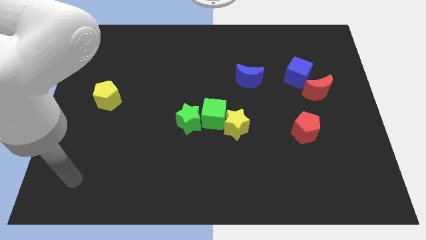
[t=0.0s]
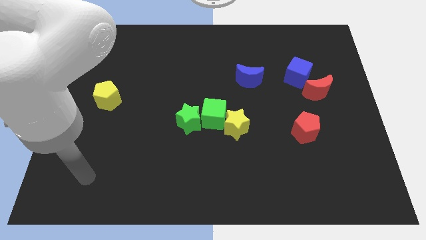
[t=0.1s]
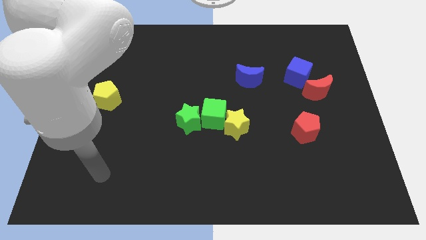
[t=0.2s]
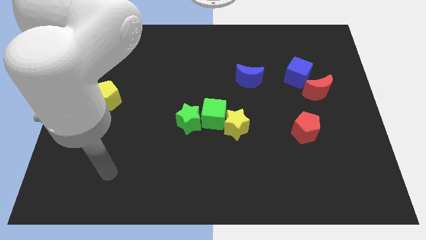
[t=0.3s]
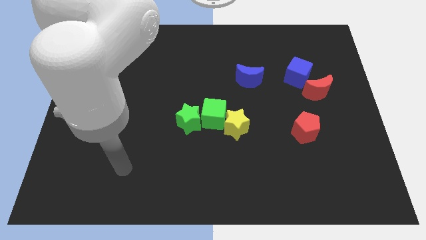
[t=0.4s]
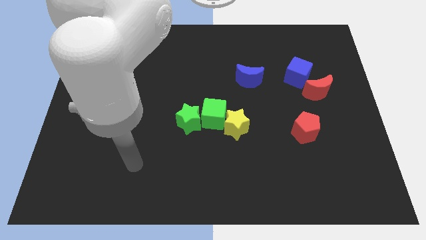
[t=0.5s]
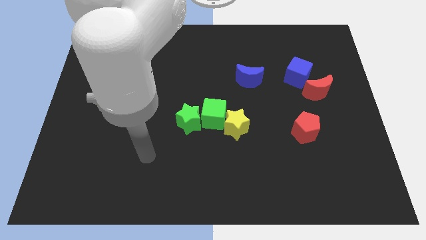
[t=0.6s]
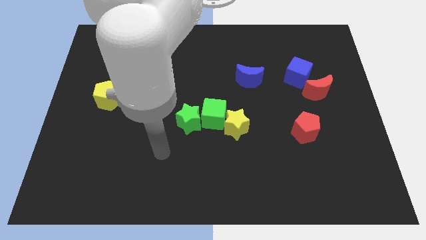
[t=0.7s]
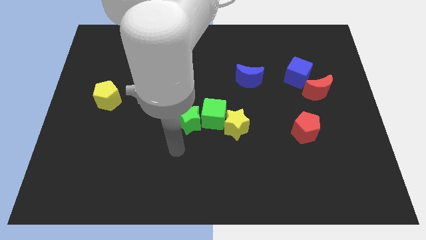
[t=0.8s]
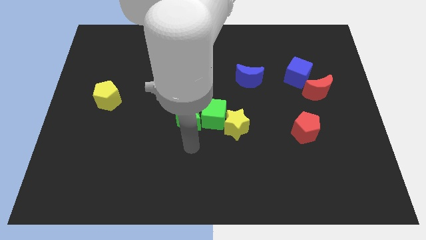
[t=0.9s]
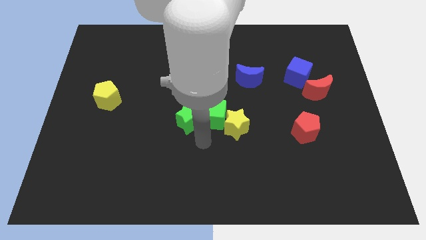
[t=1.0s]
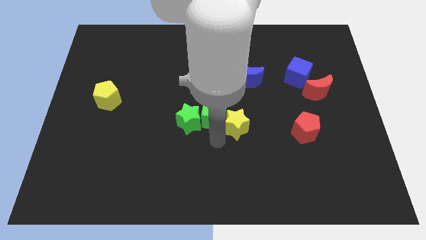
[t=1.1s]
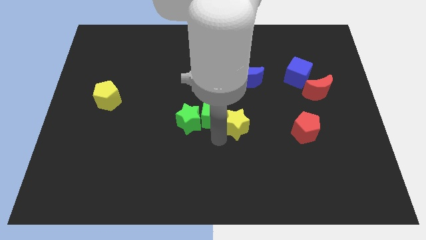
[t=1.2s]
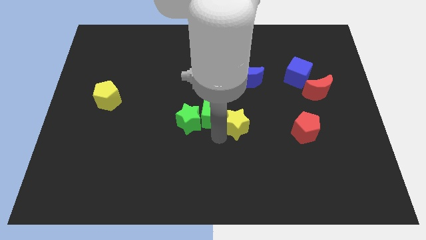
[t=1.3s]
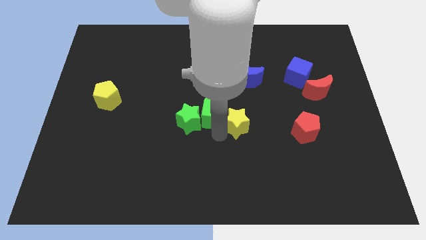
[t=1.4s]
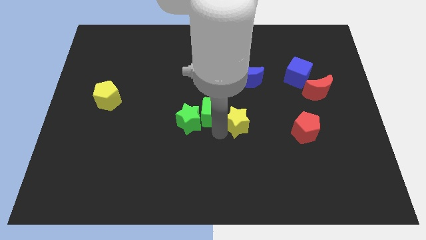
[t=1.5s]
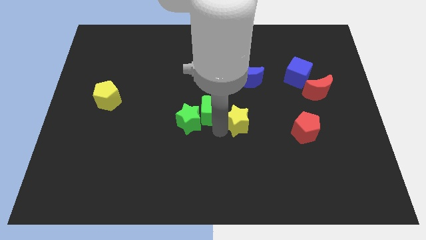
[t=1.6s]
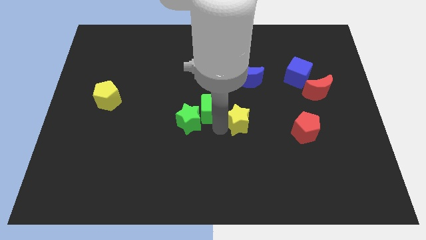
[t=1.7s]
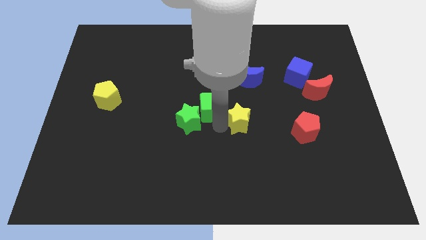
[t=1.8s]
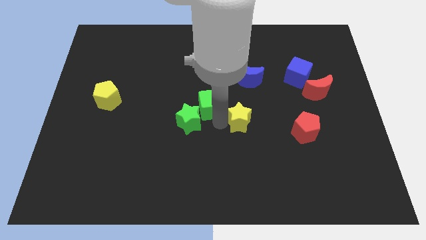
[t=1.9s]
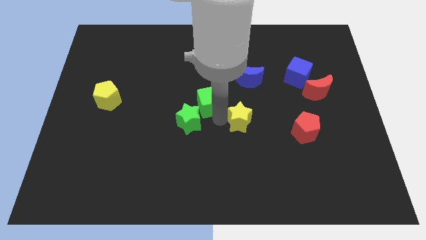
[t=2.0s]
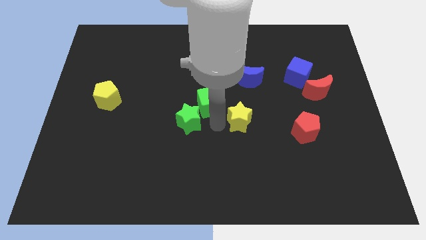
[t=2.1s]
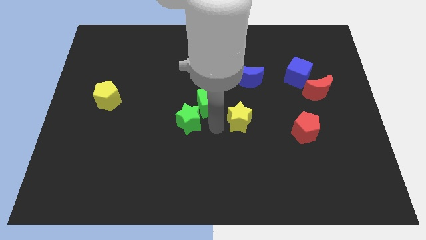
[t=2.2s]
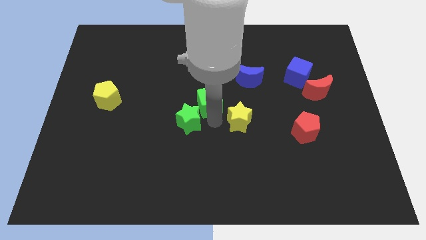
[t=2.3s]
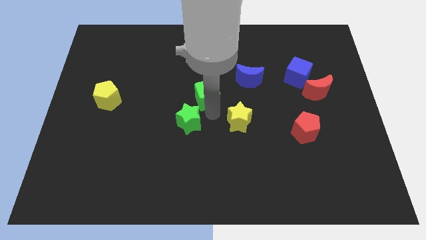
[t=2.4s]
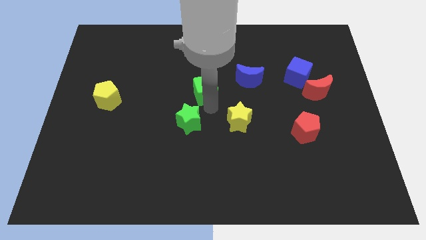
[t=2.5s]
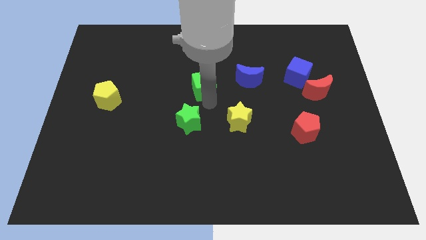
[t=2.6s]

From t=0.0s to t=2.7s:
separate the green cube from the yellow star and green star

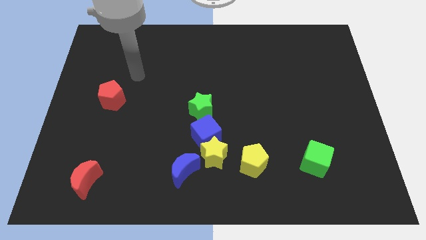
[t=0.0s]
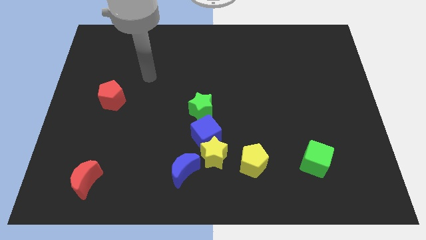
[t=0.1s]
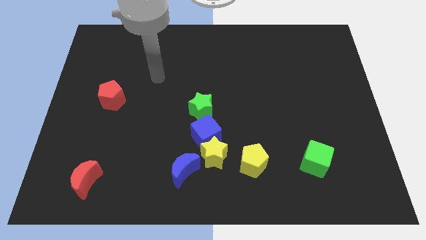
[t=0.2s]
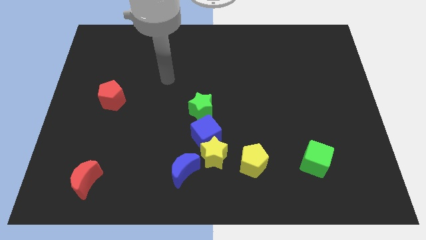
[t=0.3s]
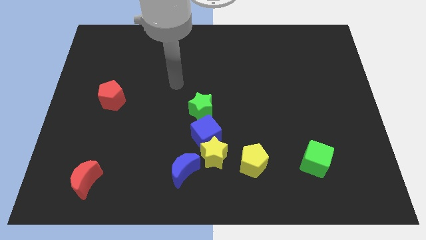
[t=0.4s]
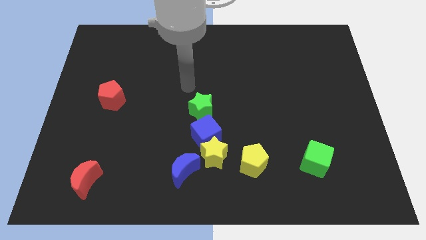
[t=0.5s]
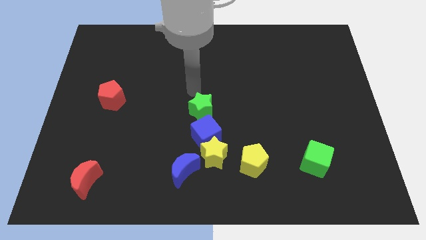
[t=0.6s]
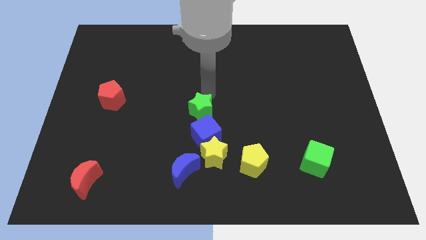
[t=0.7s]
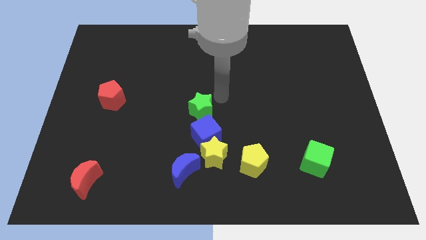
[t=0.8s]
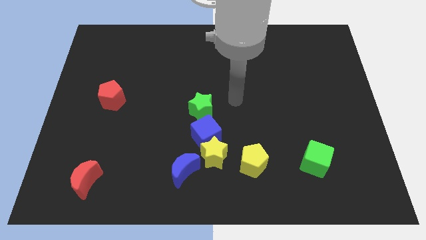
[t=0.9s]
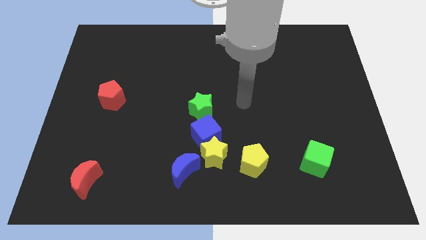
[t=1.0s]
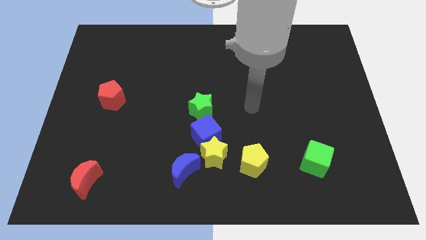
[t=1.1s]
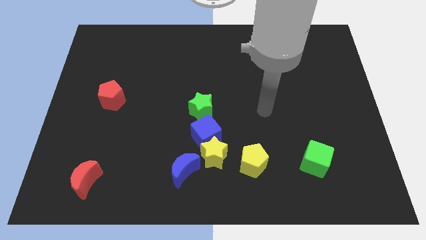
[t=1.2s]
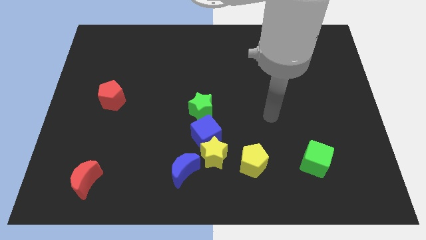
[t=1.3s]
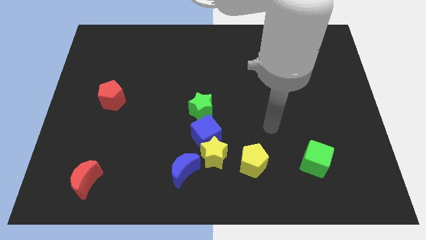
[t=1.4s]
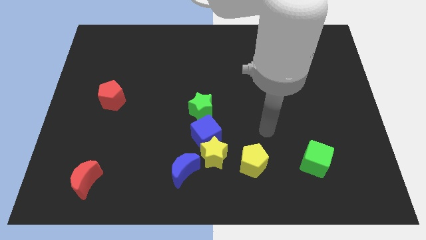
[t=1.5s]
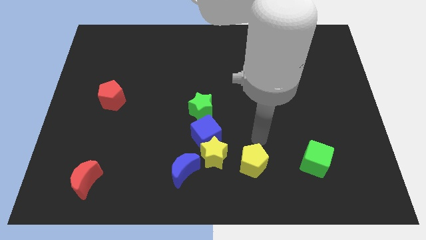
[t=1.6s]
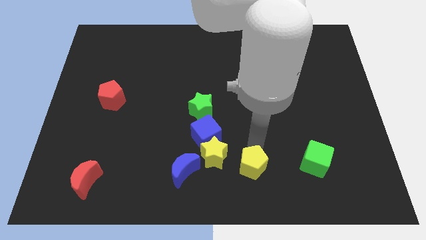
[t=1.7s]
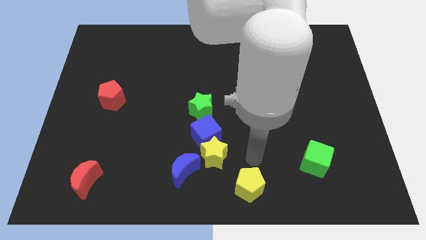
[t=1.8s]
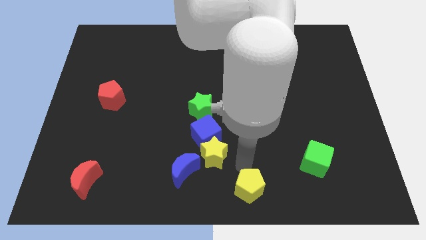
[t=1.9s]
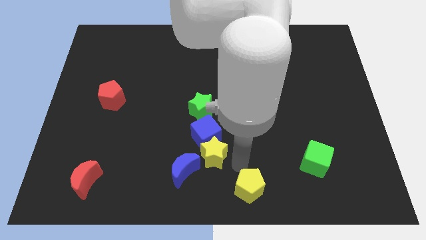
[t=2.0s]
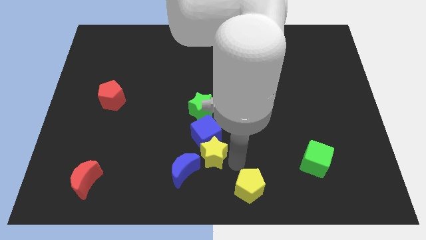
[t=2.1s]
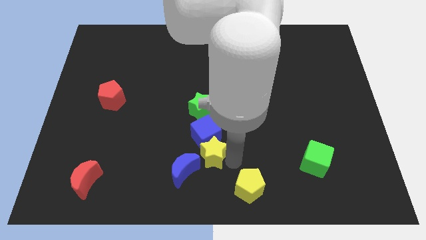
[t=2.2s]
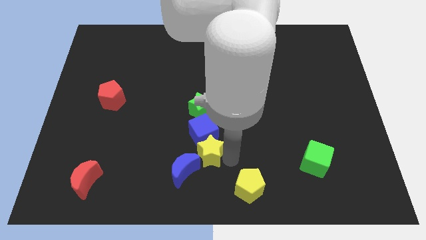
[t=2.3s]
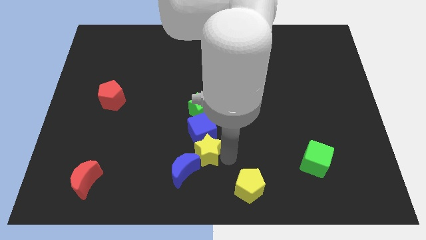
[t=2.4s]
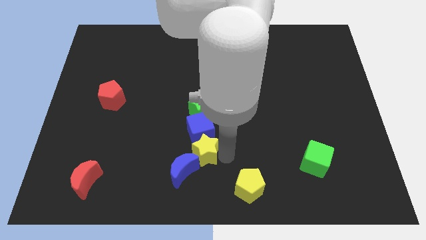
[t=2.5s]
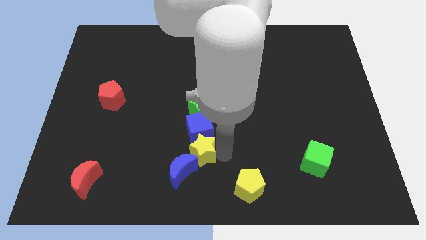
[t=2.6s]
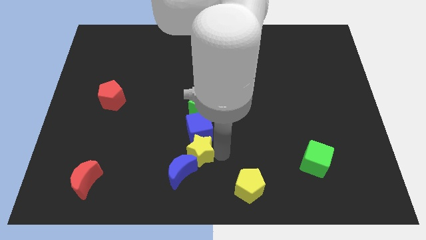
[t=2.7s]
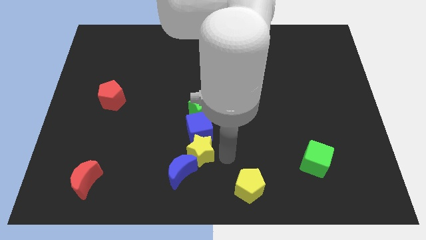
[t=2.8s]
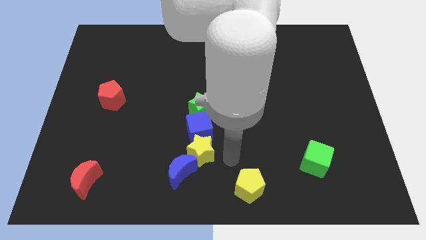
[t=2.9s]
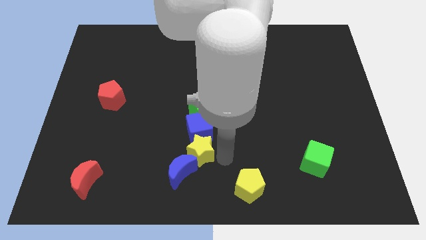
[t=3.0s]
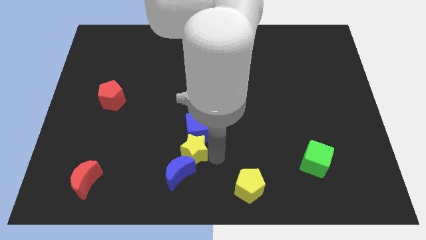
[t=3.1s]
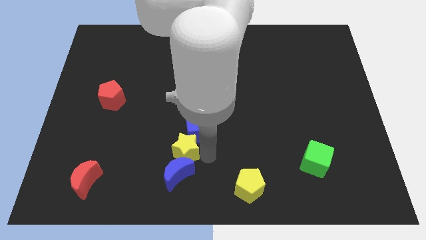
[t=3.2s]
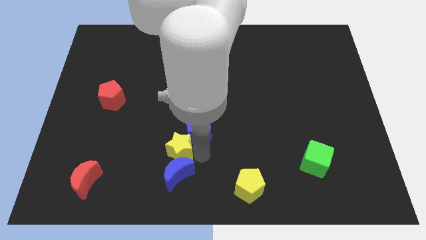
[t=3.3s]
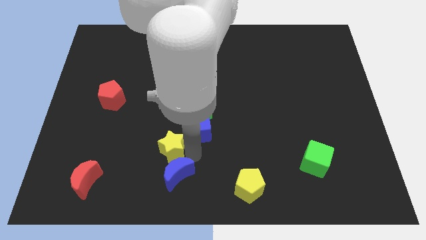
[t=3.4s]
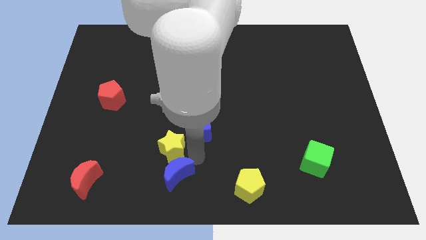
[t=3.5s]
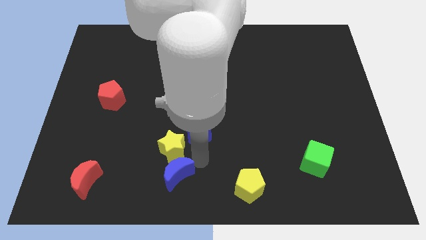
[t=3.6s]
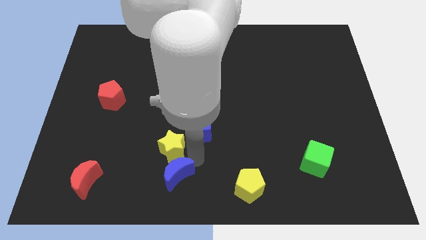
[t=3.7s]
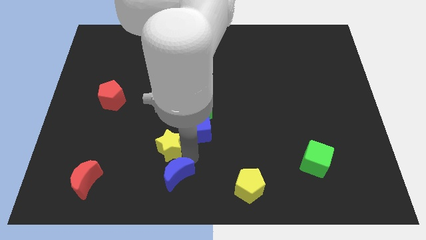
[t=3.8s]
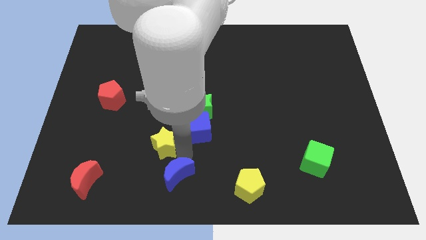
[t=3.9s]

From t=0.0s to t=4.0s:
separate the yellow star from the blue cube, blue moon, and yellow pentagon

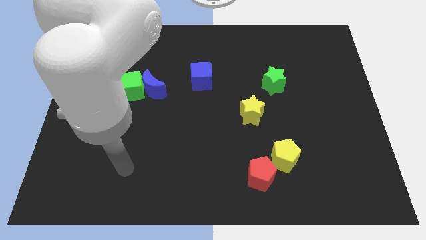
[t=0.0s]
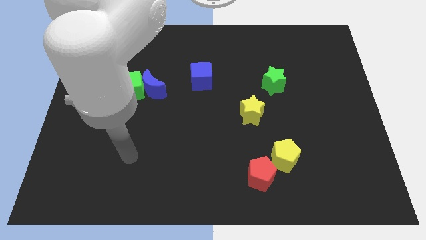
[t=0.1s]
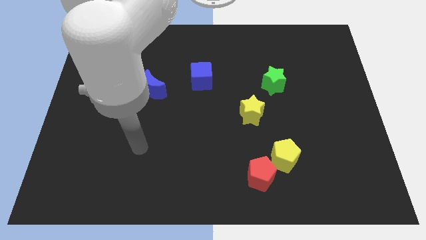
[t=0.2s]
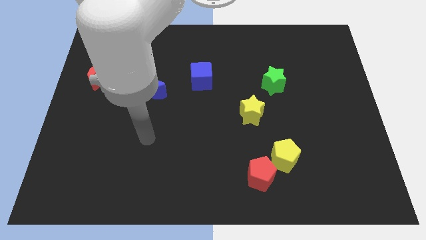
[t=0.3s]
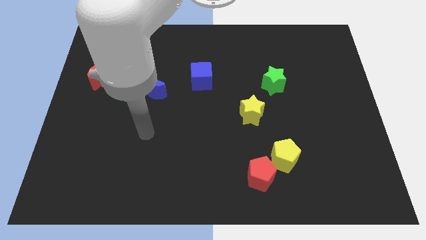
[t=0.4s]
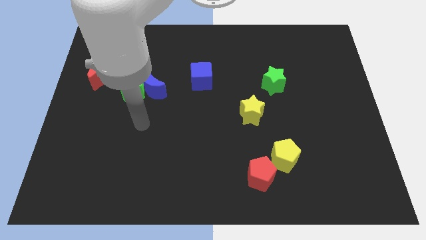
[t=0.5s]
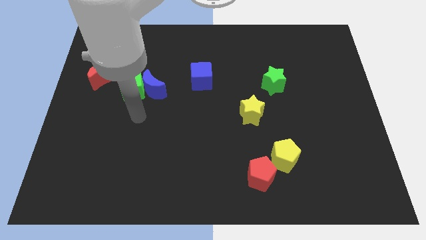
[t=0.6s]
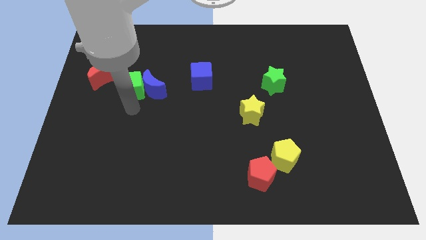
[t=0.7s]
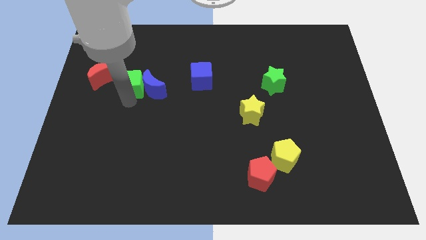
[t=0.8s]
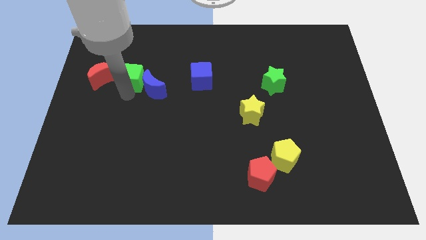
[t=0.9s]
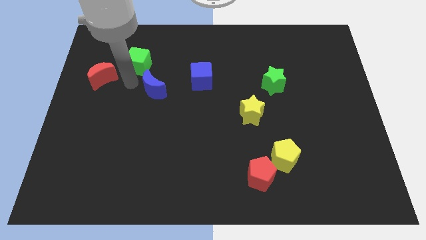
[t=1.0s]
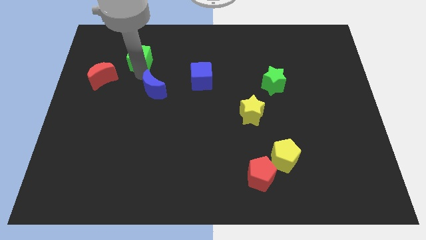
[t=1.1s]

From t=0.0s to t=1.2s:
move the blue moon away from the green cube

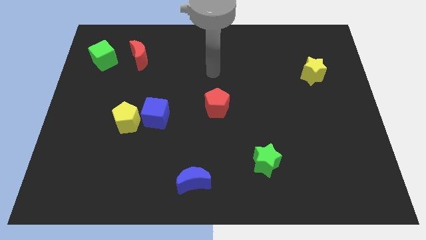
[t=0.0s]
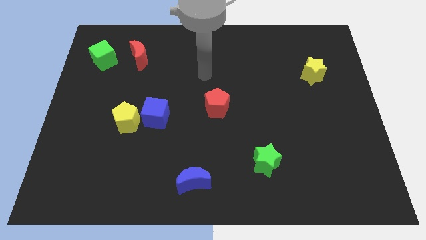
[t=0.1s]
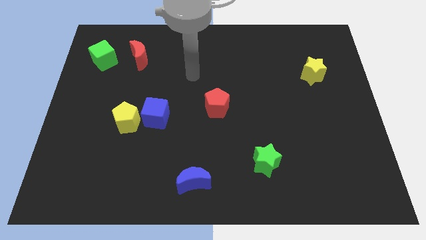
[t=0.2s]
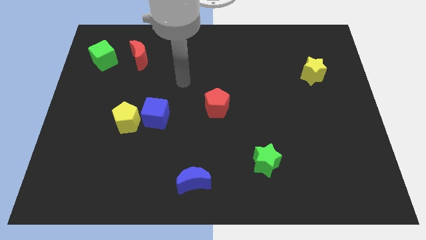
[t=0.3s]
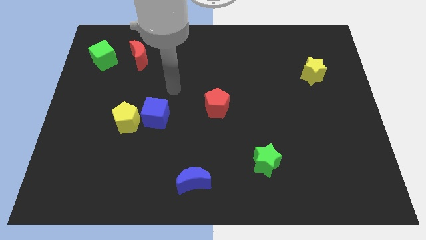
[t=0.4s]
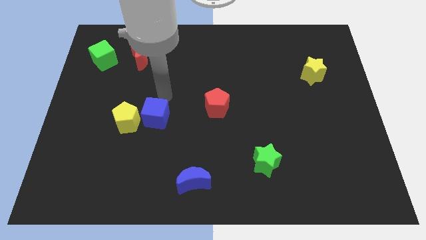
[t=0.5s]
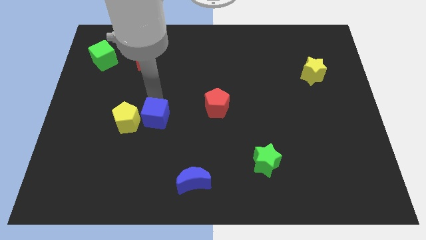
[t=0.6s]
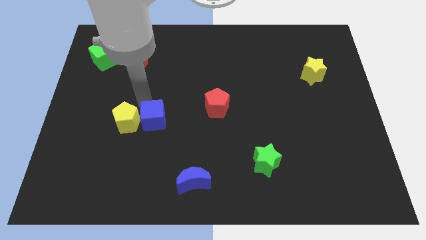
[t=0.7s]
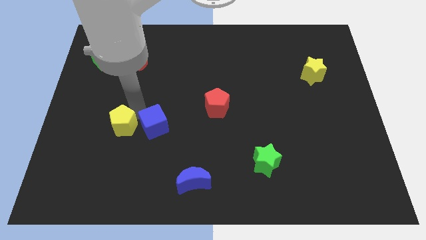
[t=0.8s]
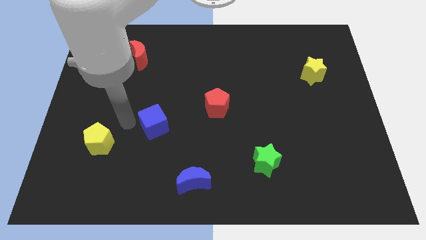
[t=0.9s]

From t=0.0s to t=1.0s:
pull the blue cube apart from the yellow pentagon

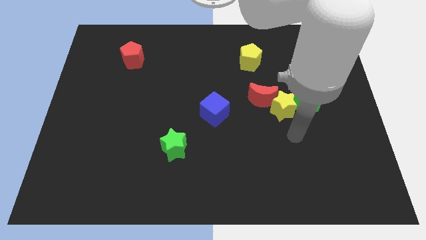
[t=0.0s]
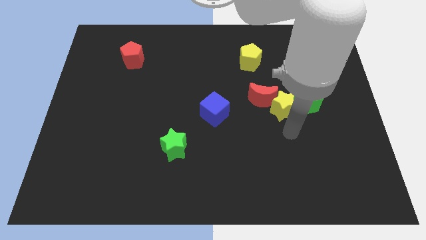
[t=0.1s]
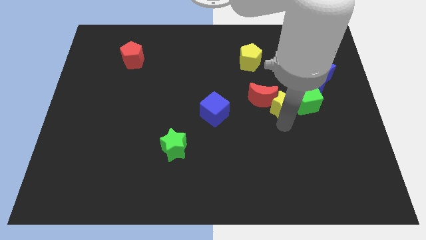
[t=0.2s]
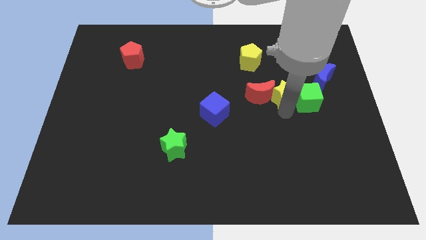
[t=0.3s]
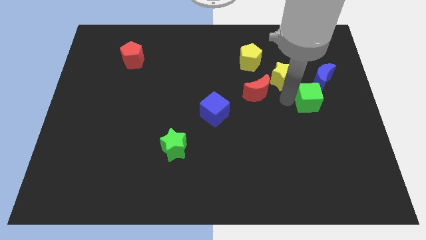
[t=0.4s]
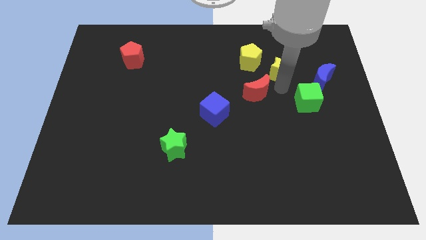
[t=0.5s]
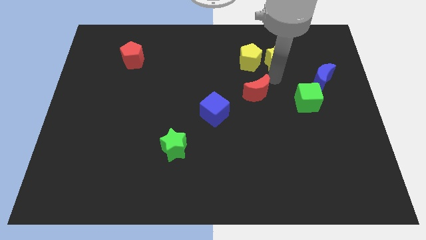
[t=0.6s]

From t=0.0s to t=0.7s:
pull the red moon apart from the yellow star
